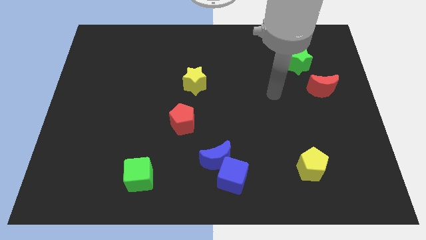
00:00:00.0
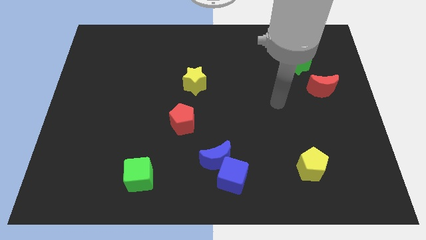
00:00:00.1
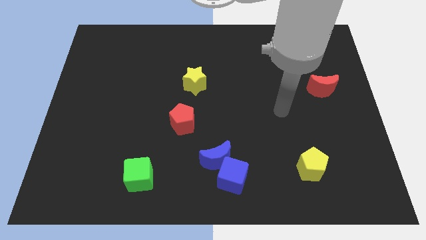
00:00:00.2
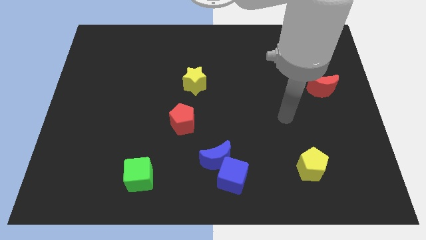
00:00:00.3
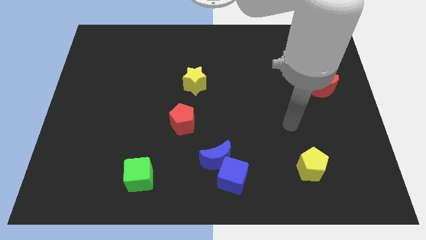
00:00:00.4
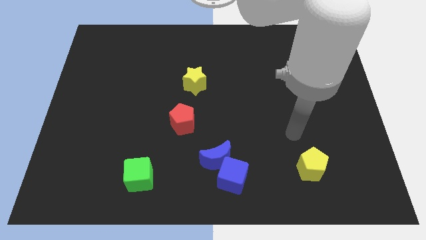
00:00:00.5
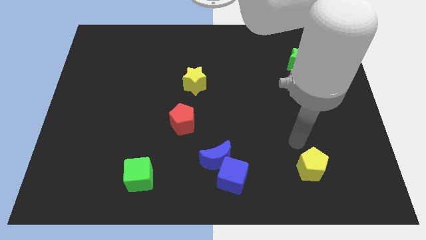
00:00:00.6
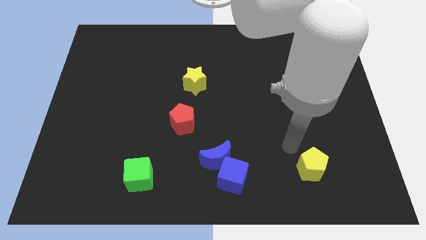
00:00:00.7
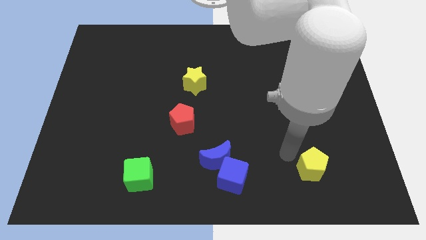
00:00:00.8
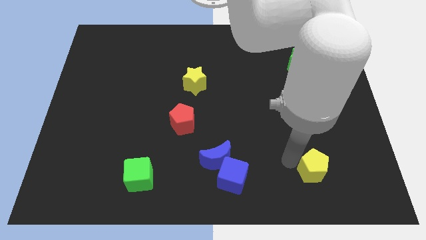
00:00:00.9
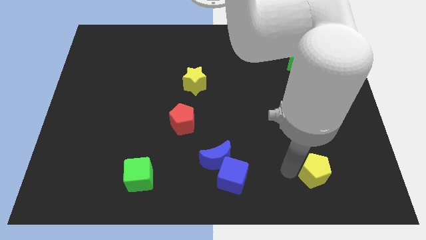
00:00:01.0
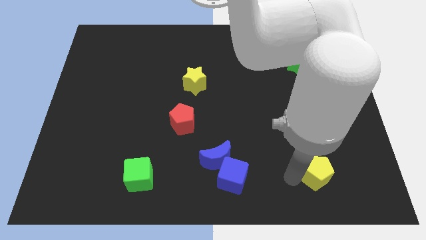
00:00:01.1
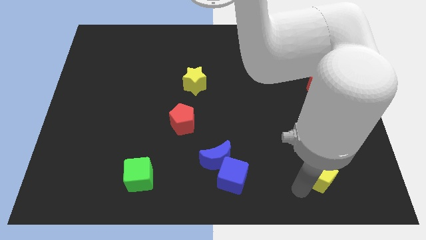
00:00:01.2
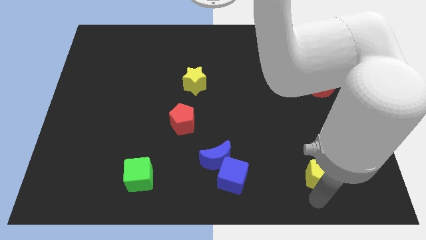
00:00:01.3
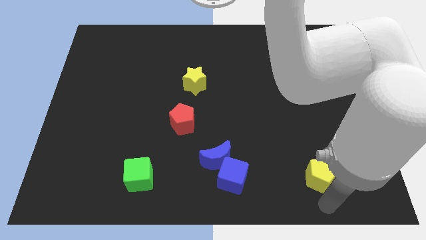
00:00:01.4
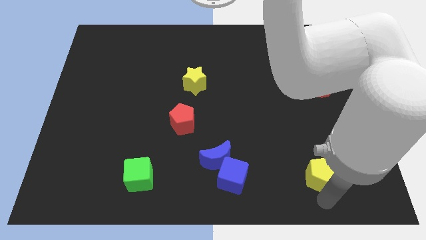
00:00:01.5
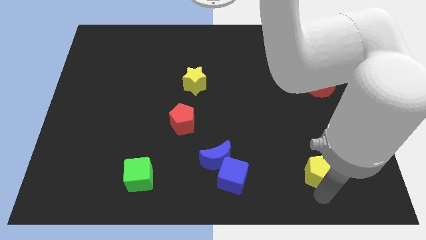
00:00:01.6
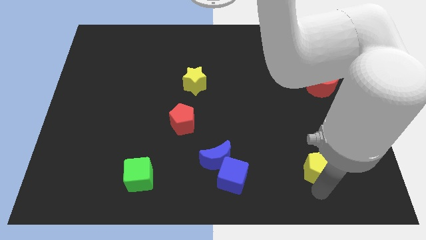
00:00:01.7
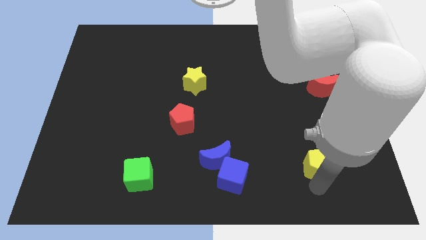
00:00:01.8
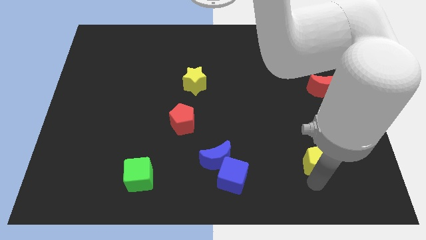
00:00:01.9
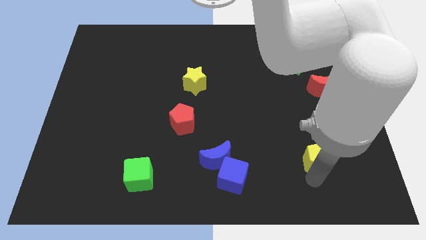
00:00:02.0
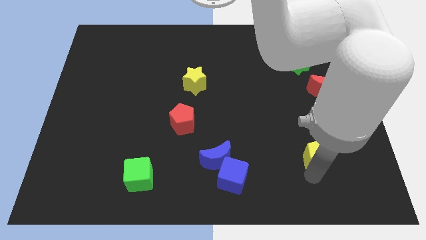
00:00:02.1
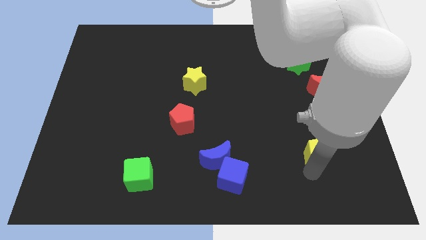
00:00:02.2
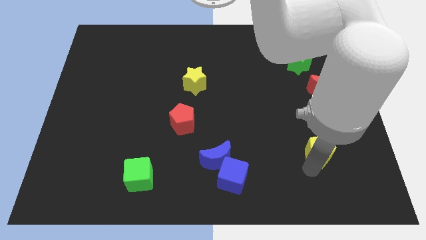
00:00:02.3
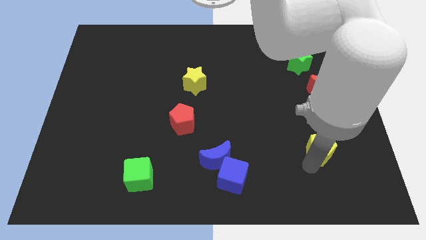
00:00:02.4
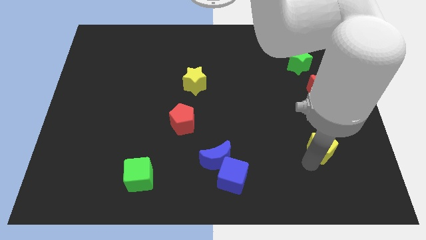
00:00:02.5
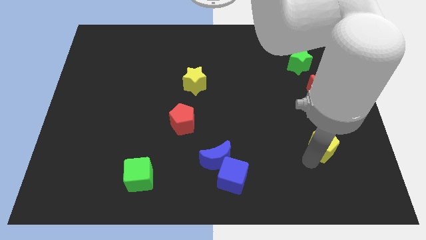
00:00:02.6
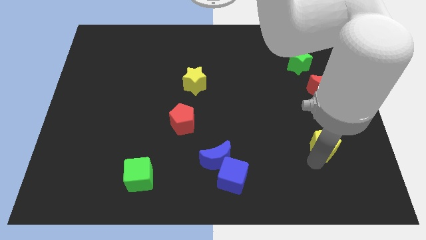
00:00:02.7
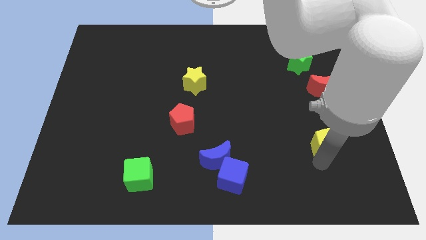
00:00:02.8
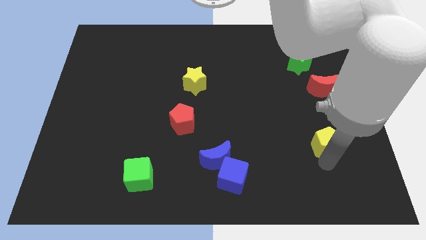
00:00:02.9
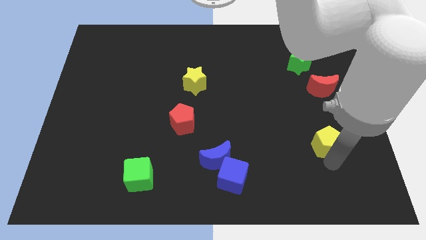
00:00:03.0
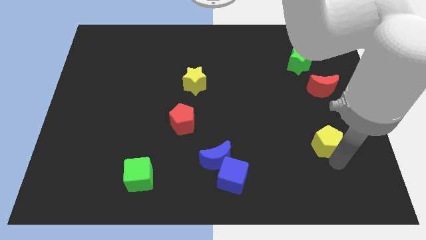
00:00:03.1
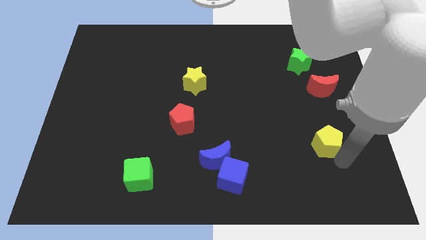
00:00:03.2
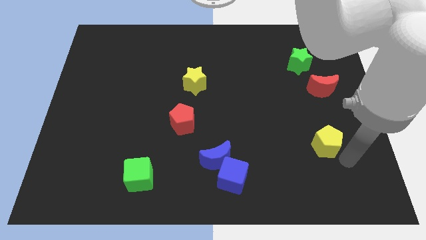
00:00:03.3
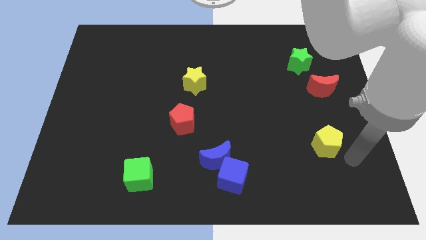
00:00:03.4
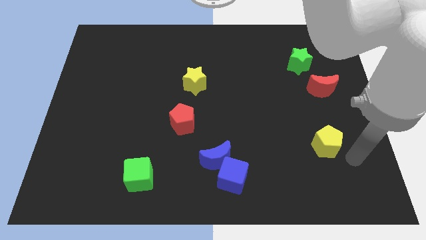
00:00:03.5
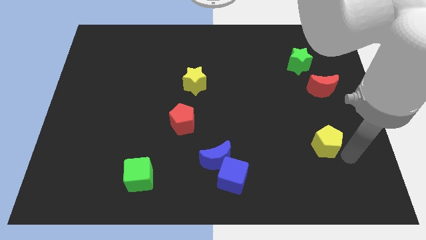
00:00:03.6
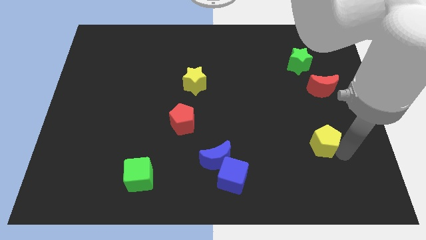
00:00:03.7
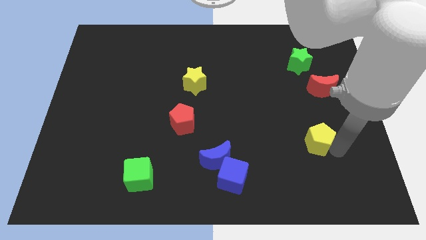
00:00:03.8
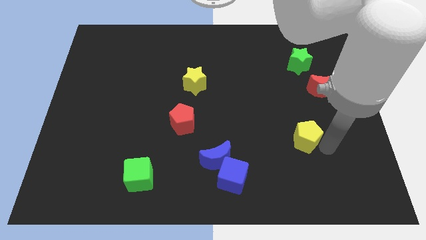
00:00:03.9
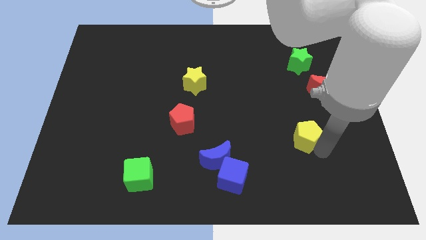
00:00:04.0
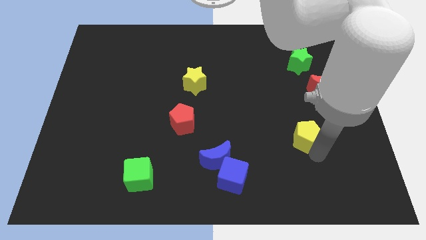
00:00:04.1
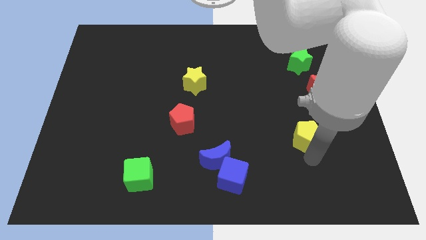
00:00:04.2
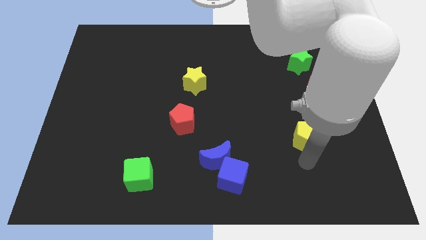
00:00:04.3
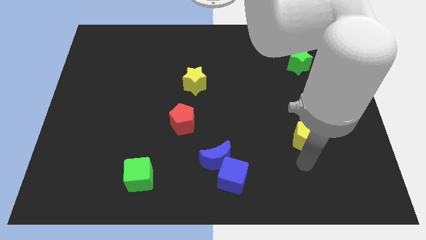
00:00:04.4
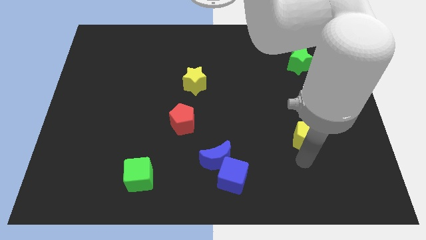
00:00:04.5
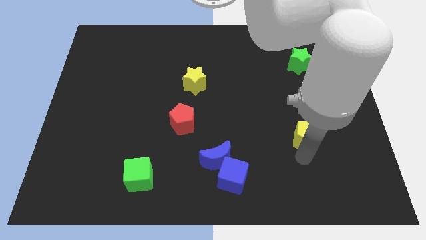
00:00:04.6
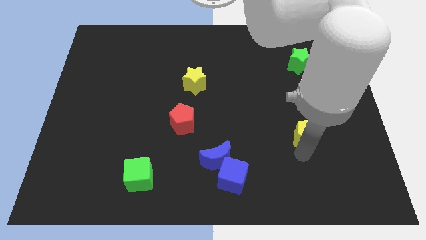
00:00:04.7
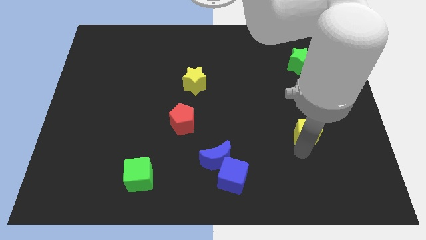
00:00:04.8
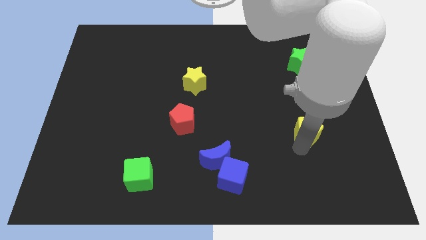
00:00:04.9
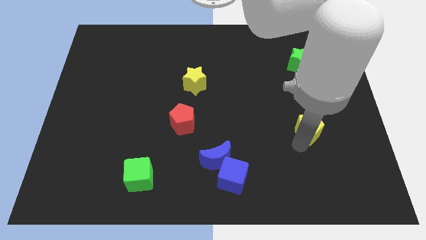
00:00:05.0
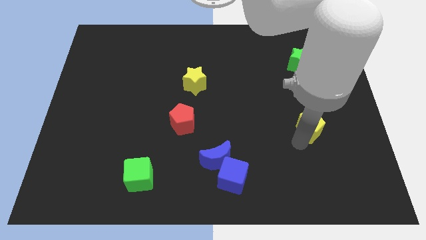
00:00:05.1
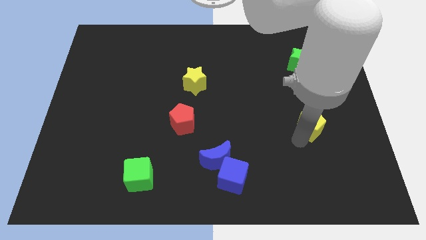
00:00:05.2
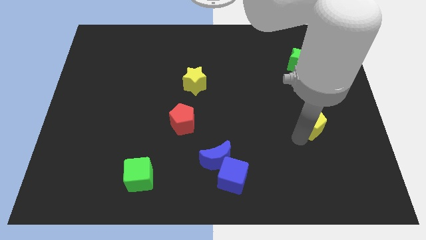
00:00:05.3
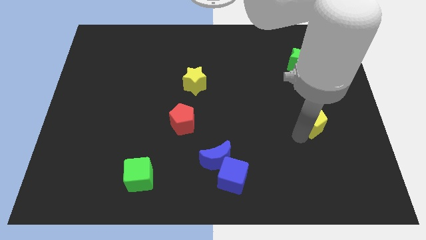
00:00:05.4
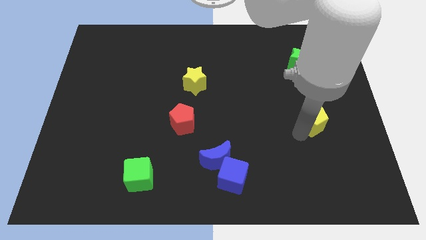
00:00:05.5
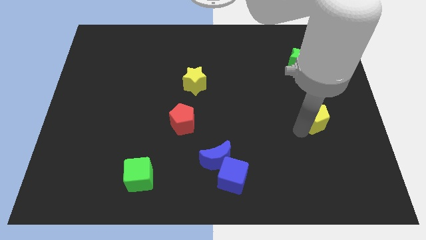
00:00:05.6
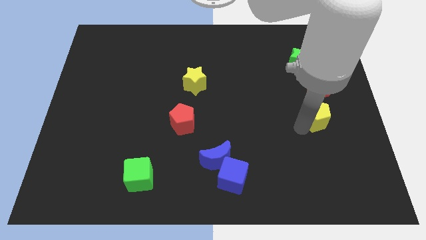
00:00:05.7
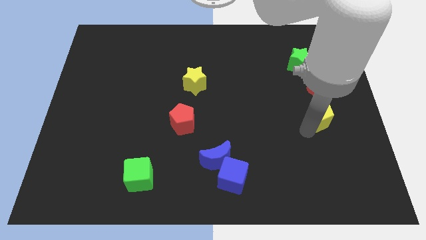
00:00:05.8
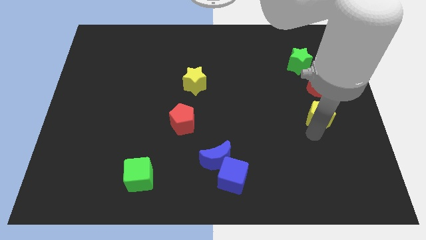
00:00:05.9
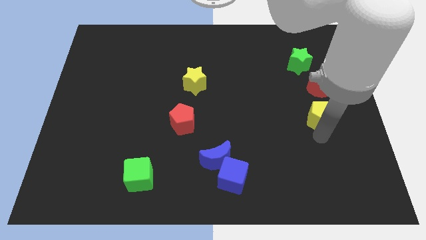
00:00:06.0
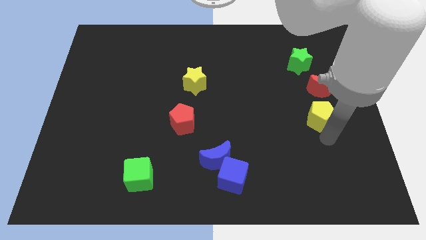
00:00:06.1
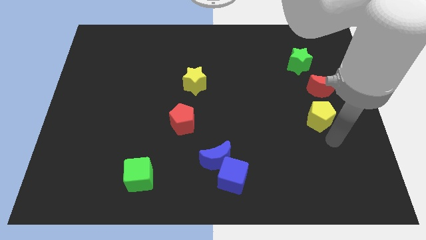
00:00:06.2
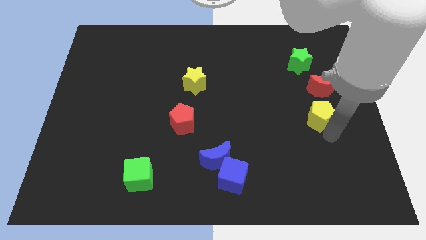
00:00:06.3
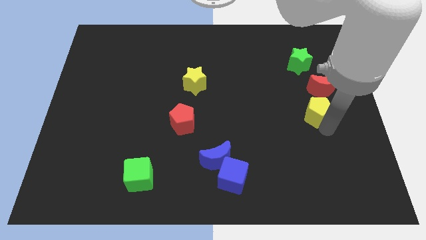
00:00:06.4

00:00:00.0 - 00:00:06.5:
push the yellow pentagon to the bottom of the green star
